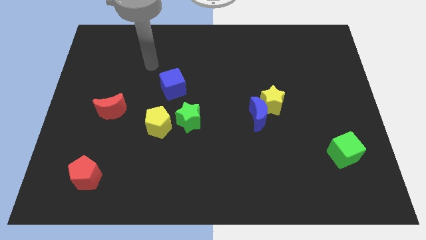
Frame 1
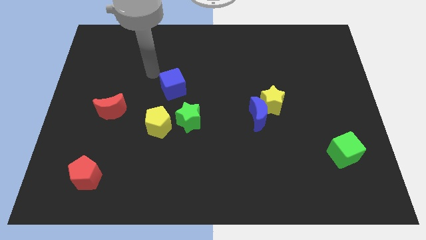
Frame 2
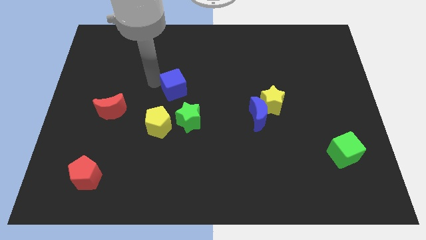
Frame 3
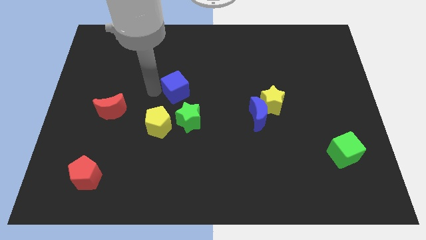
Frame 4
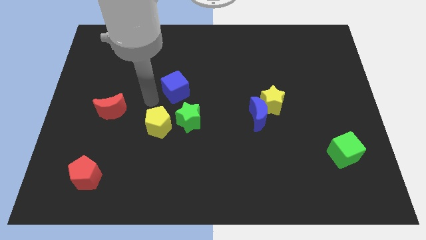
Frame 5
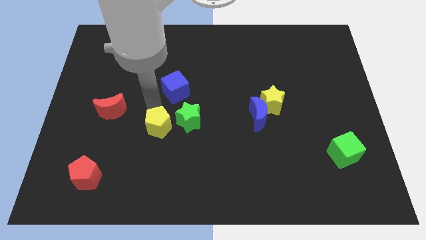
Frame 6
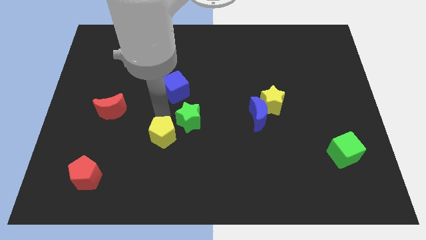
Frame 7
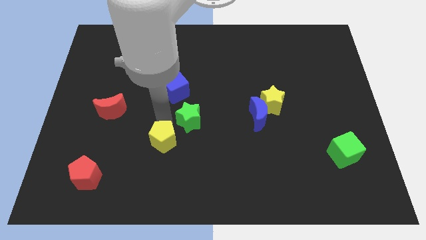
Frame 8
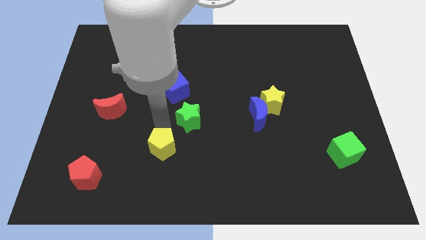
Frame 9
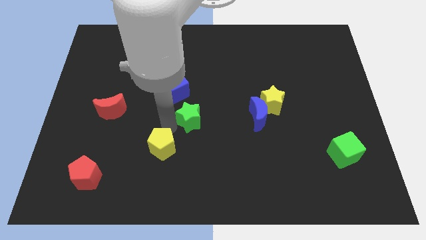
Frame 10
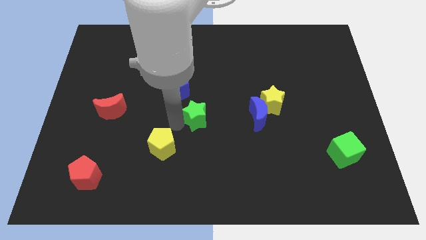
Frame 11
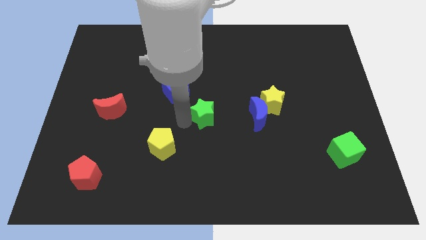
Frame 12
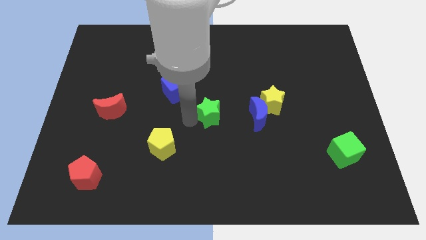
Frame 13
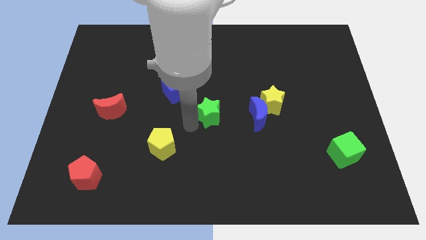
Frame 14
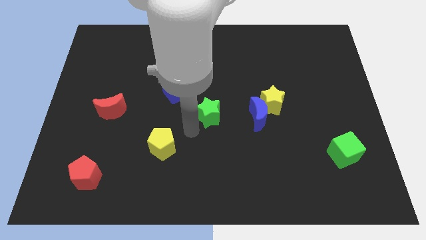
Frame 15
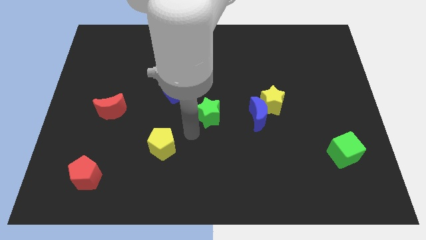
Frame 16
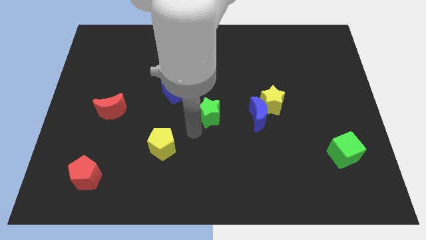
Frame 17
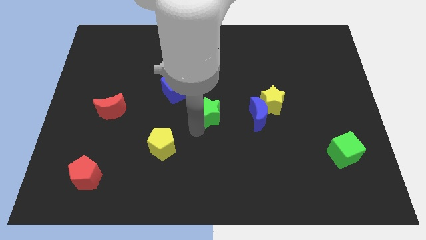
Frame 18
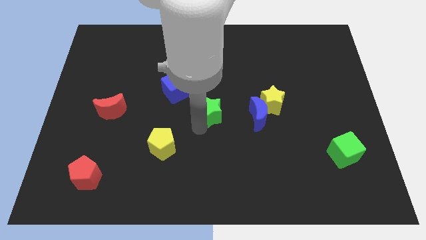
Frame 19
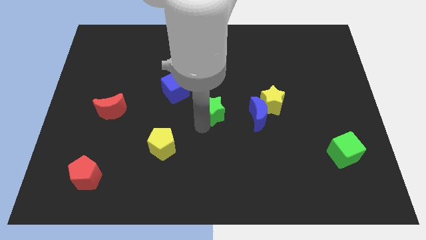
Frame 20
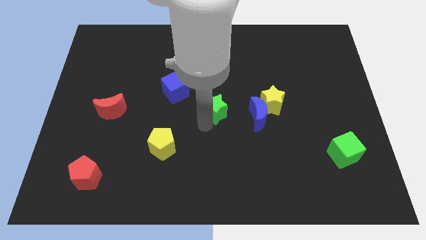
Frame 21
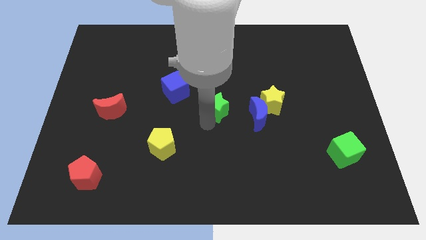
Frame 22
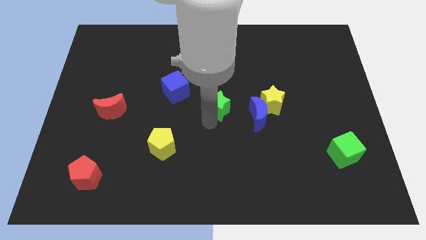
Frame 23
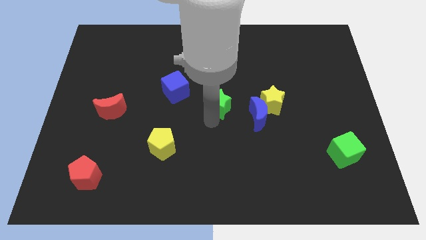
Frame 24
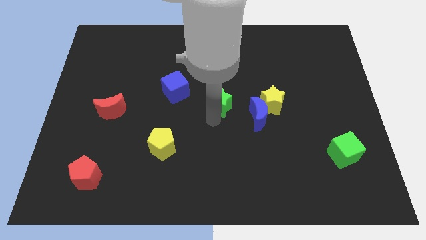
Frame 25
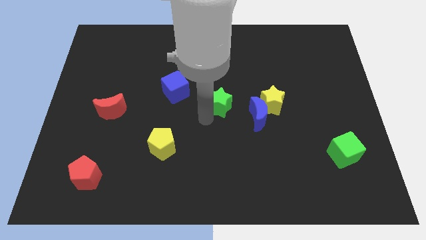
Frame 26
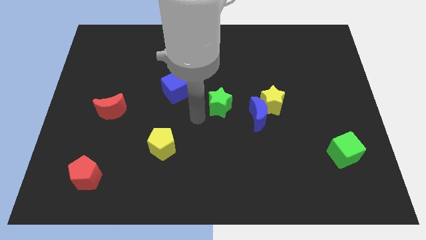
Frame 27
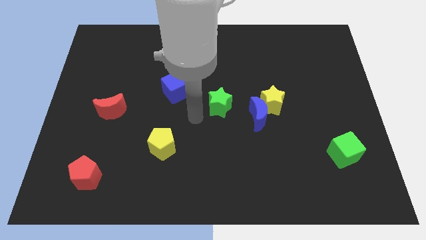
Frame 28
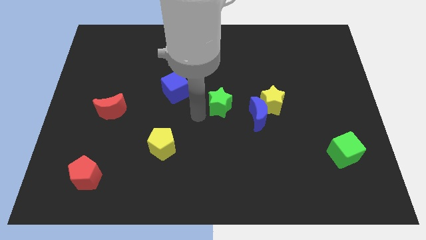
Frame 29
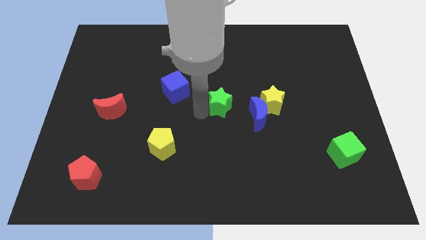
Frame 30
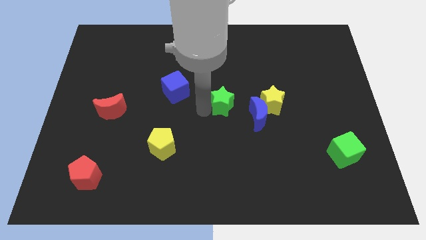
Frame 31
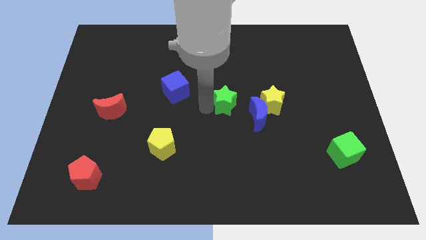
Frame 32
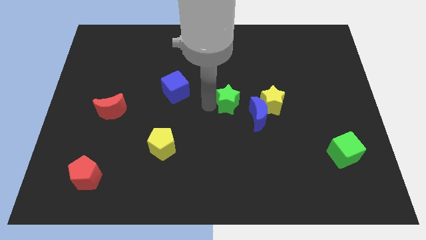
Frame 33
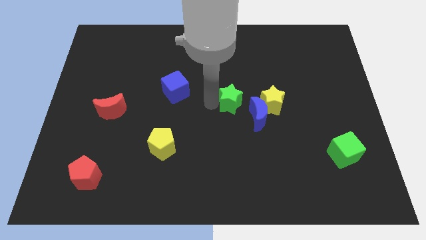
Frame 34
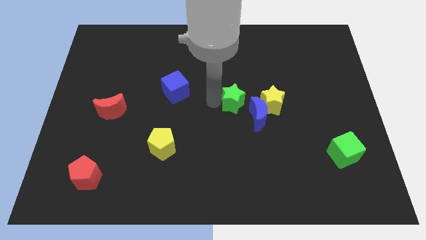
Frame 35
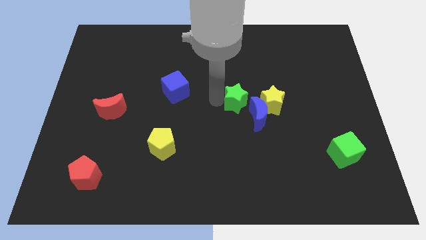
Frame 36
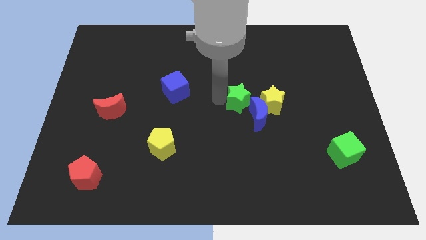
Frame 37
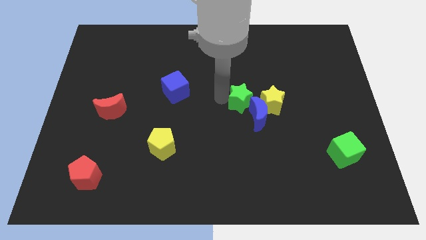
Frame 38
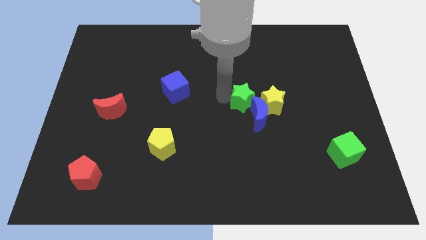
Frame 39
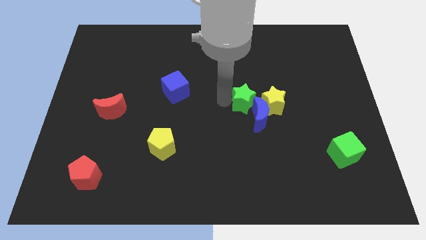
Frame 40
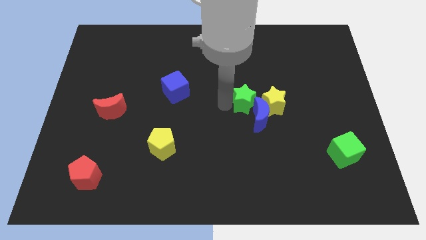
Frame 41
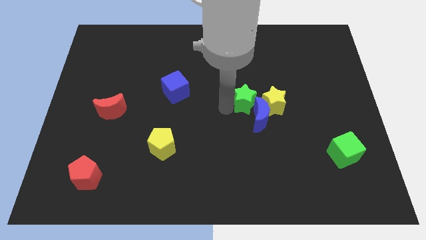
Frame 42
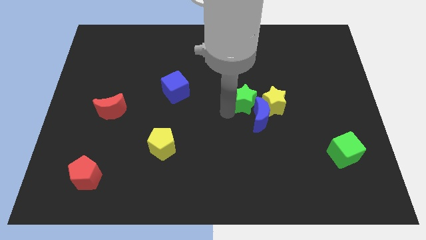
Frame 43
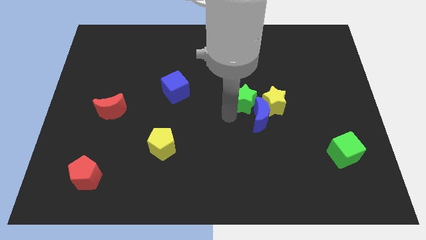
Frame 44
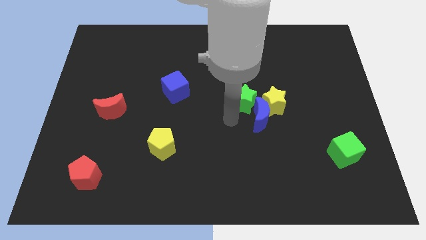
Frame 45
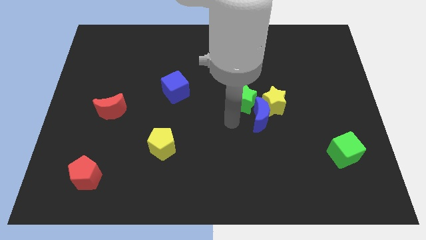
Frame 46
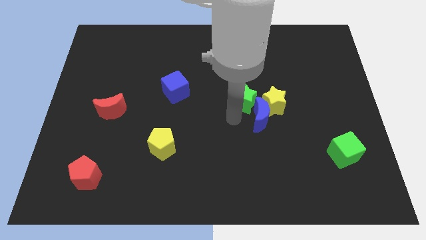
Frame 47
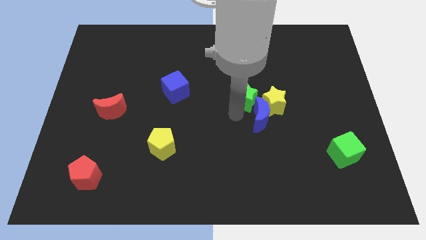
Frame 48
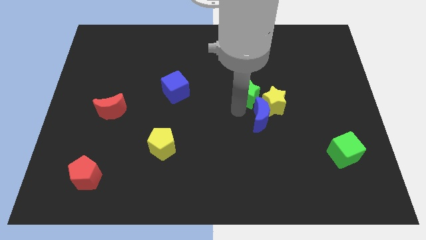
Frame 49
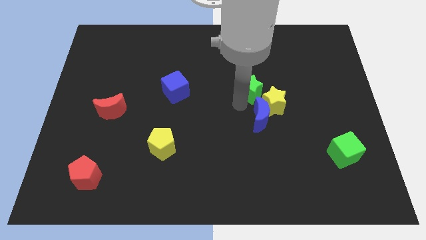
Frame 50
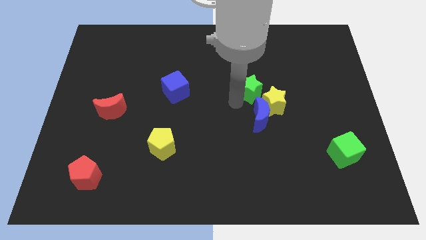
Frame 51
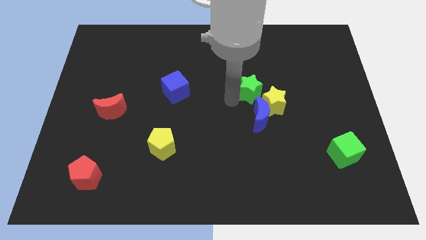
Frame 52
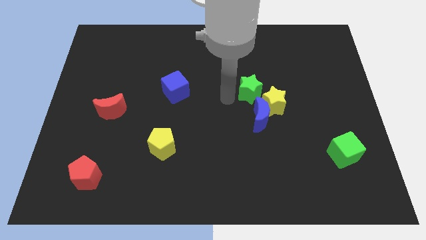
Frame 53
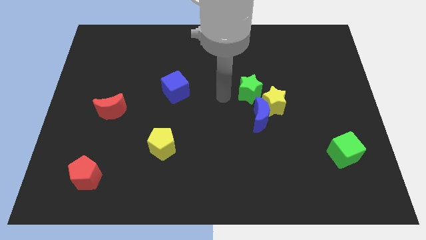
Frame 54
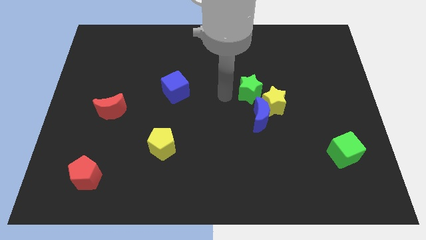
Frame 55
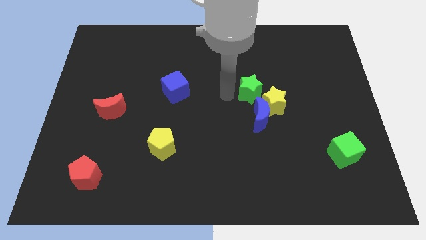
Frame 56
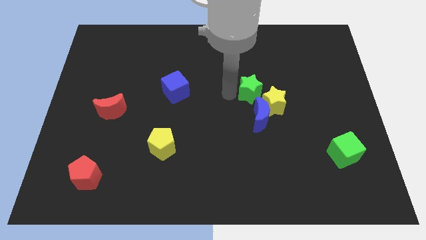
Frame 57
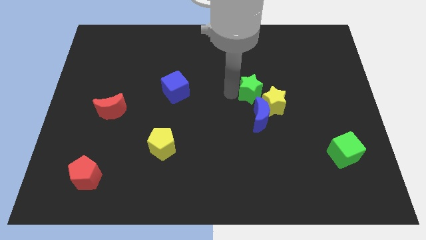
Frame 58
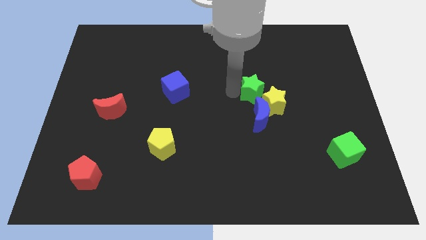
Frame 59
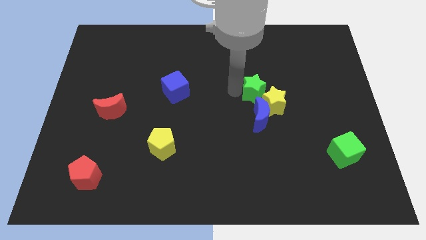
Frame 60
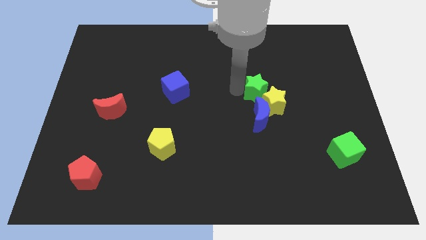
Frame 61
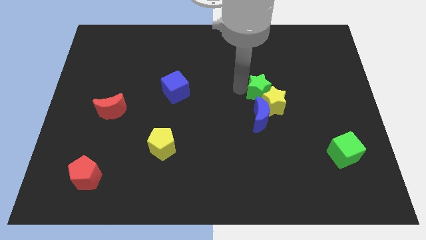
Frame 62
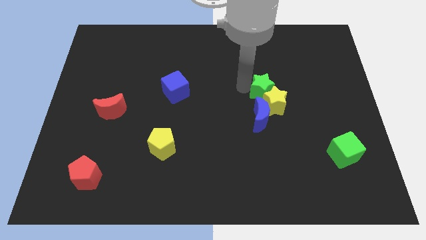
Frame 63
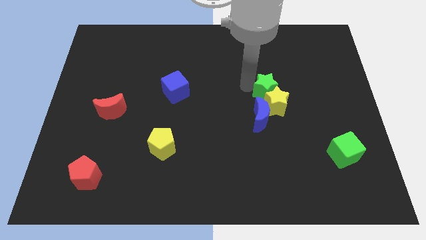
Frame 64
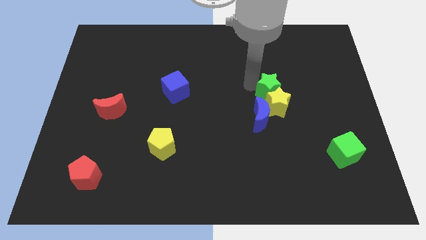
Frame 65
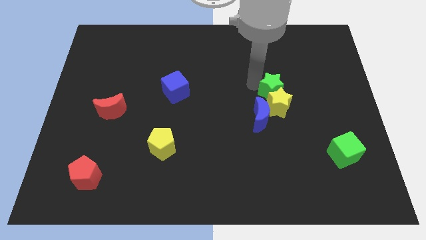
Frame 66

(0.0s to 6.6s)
put the green star diagonally up and to the right of the yellow star

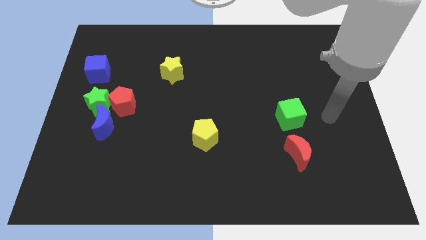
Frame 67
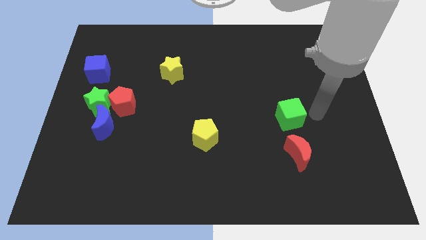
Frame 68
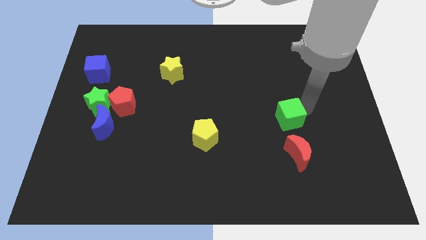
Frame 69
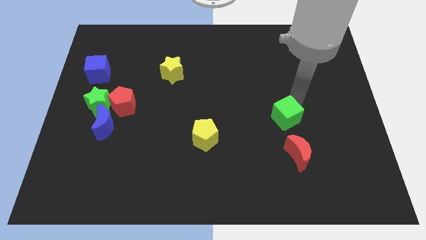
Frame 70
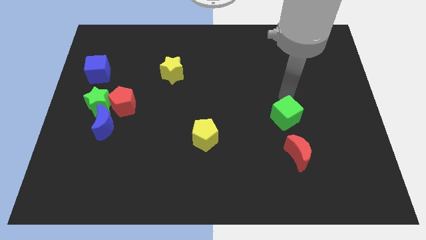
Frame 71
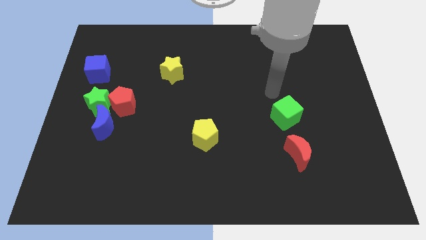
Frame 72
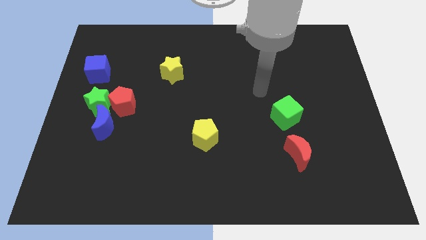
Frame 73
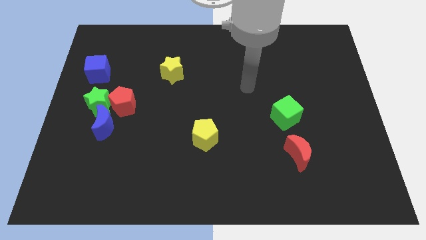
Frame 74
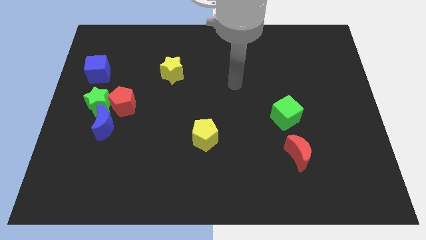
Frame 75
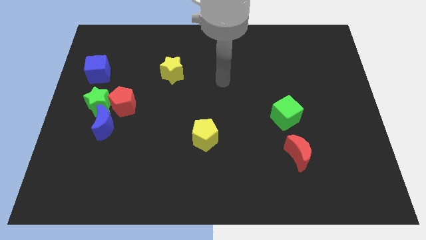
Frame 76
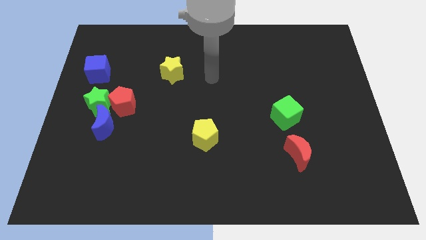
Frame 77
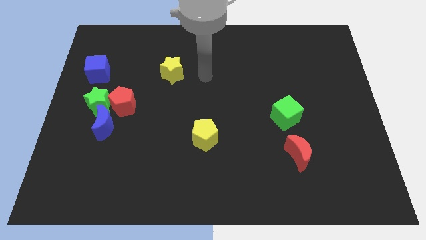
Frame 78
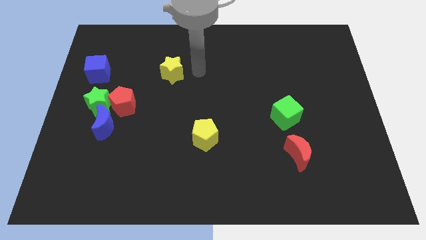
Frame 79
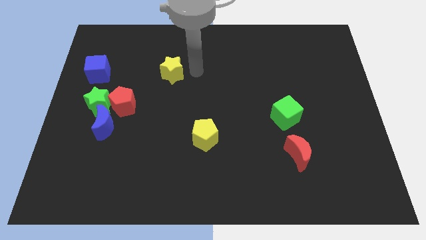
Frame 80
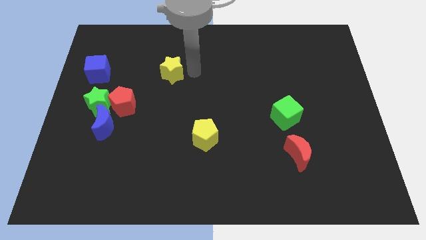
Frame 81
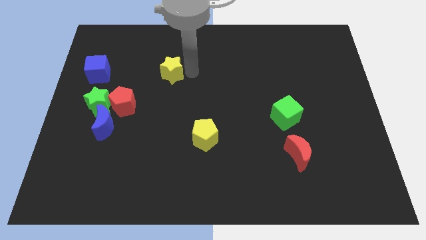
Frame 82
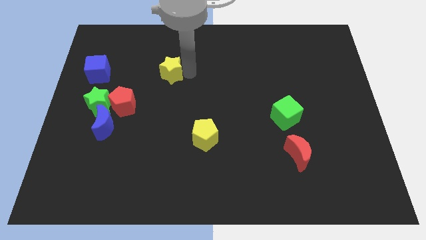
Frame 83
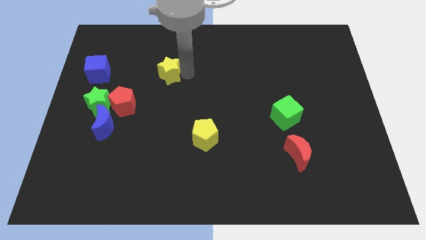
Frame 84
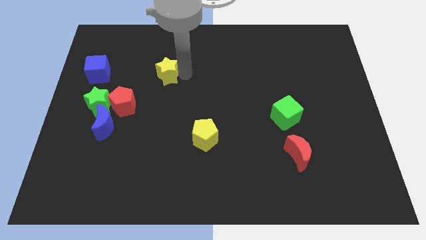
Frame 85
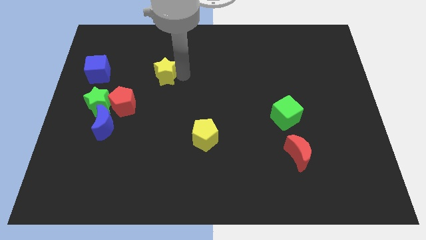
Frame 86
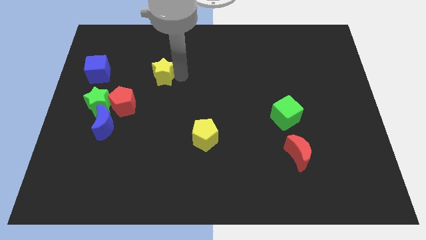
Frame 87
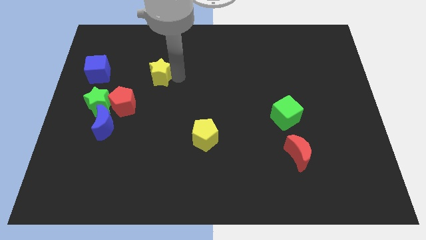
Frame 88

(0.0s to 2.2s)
put the yellow star to the right of the blue cube
